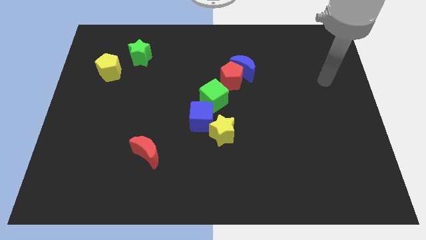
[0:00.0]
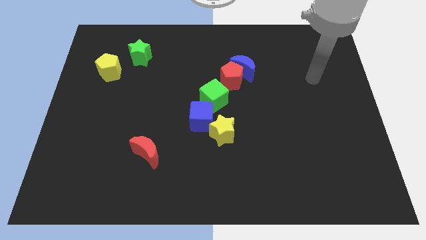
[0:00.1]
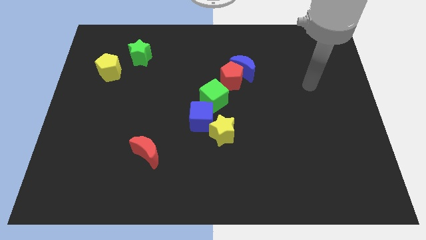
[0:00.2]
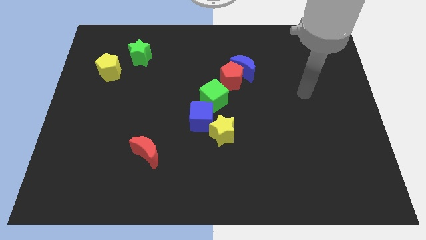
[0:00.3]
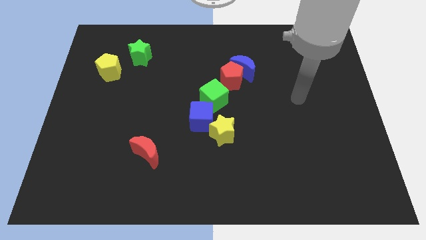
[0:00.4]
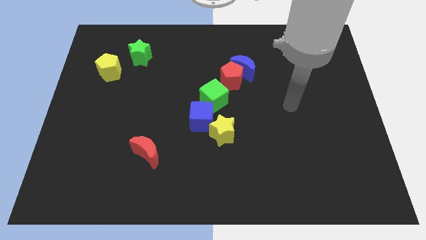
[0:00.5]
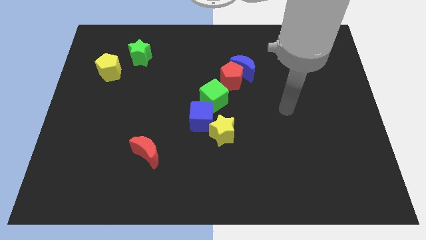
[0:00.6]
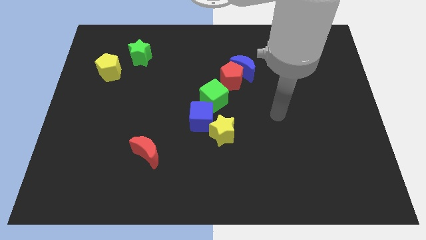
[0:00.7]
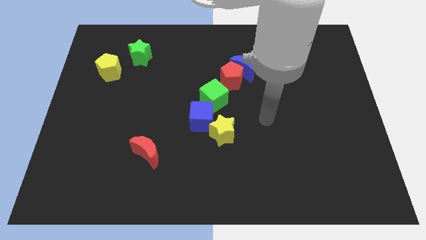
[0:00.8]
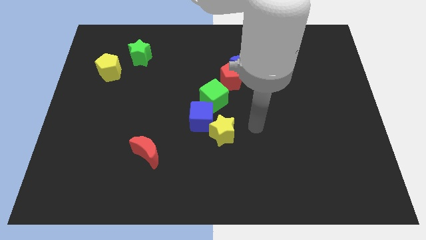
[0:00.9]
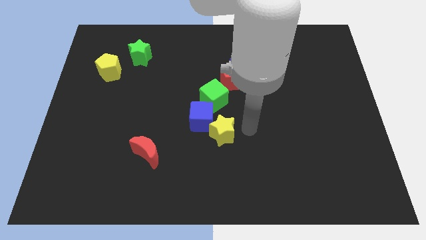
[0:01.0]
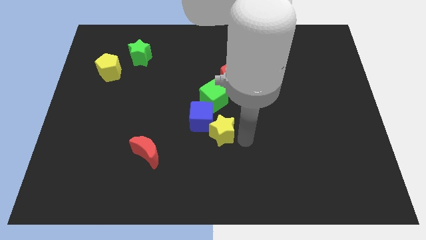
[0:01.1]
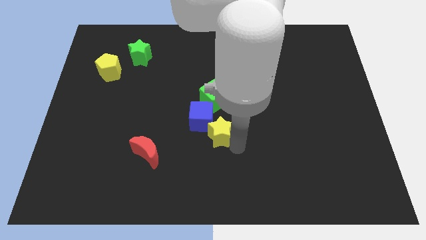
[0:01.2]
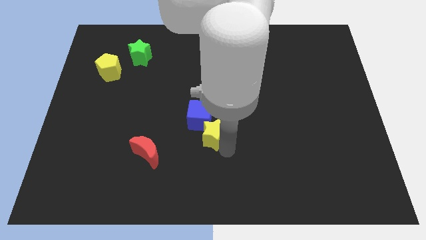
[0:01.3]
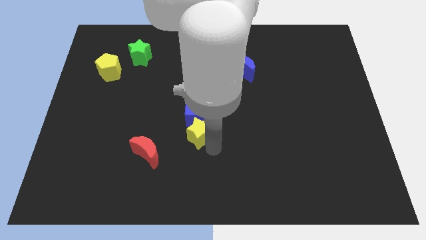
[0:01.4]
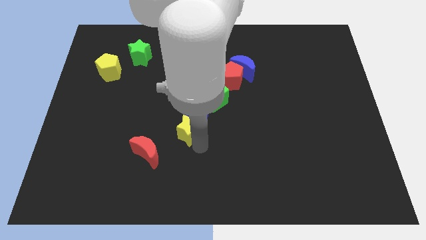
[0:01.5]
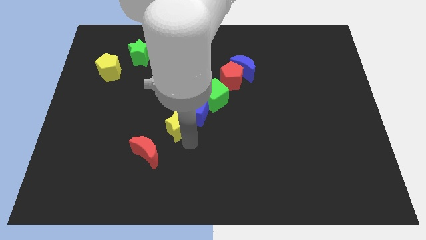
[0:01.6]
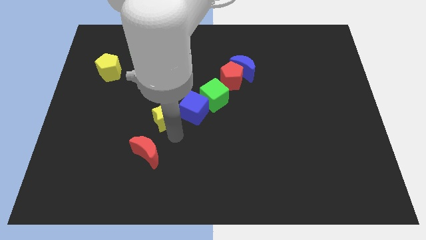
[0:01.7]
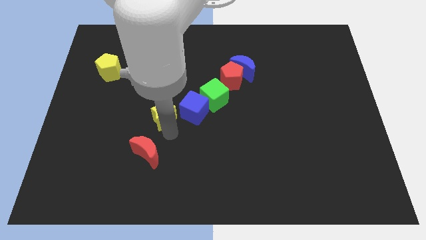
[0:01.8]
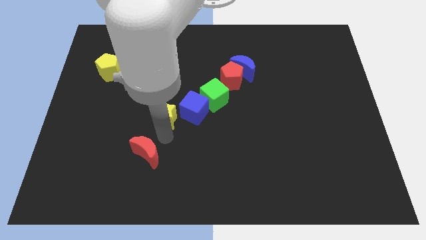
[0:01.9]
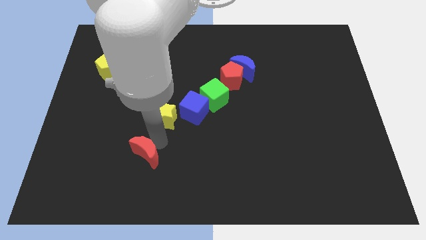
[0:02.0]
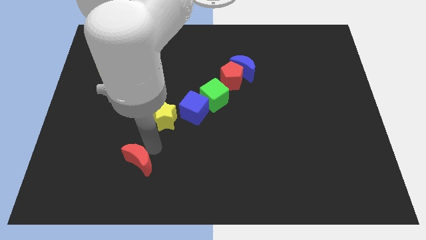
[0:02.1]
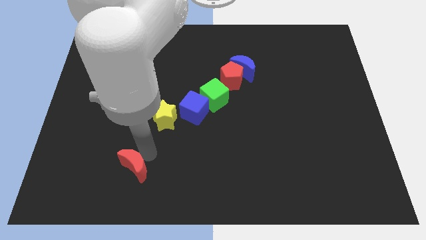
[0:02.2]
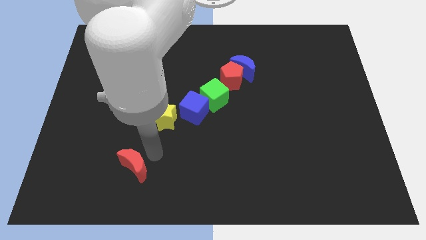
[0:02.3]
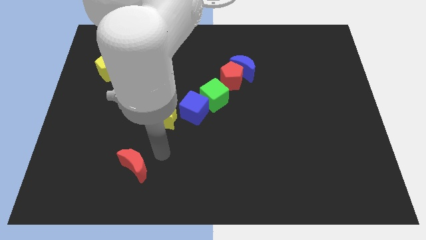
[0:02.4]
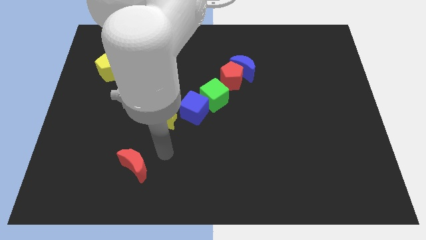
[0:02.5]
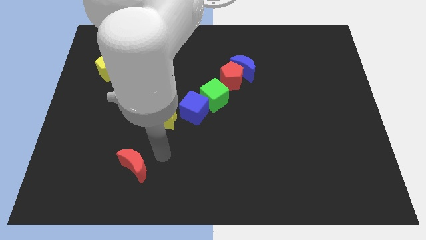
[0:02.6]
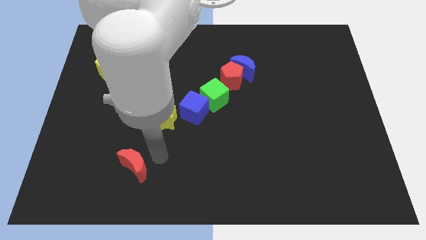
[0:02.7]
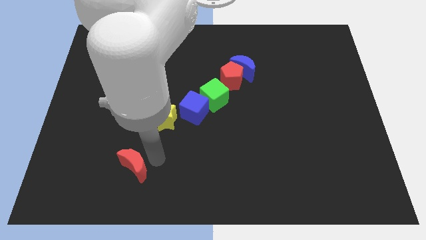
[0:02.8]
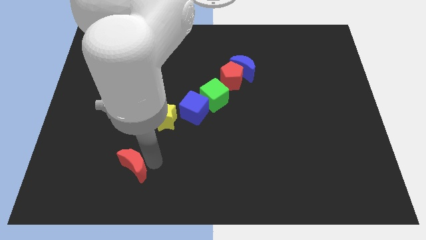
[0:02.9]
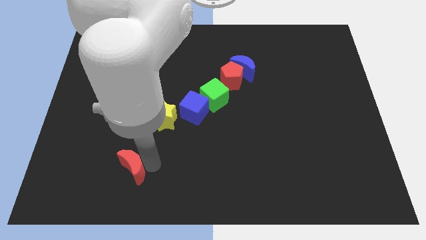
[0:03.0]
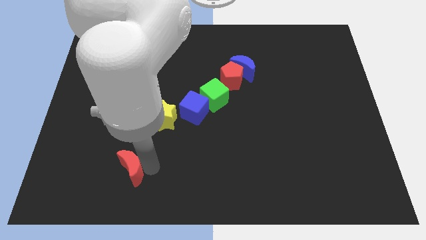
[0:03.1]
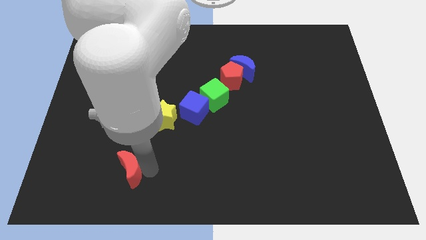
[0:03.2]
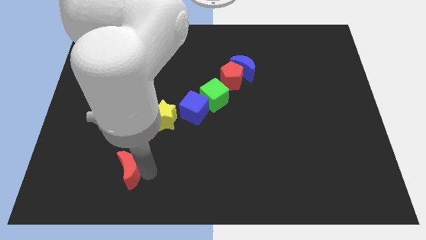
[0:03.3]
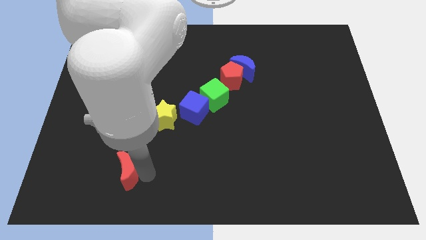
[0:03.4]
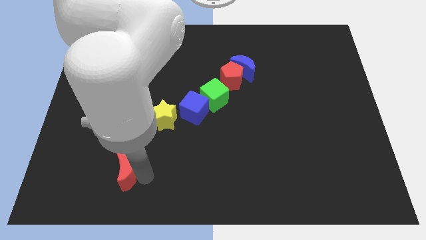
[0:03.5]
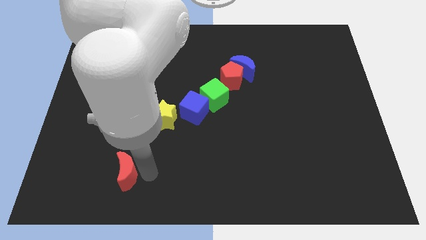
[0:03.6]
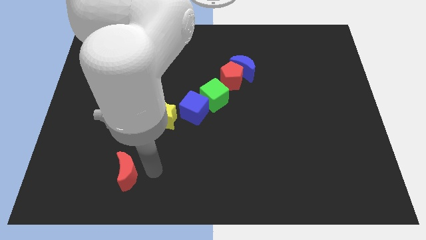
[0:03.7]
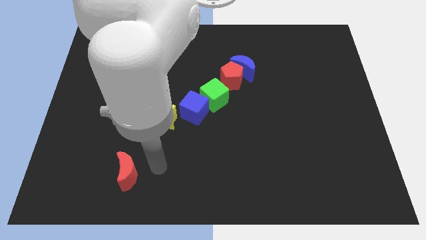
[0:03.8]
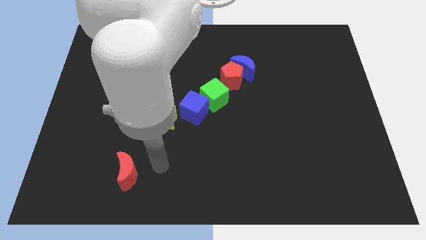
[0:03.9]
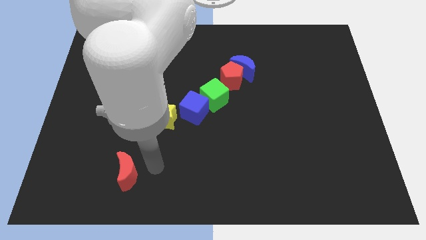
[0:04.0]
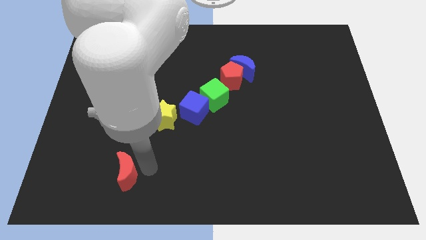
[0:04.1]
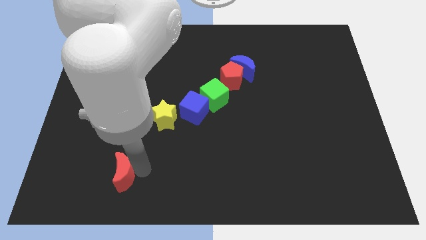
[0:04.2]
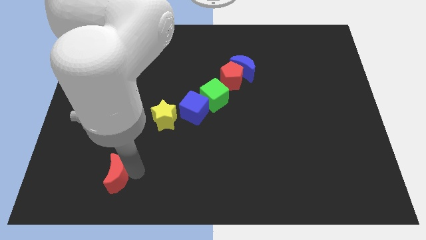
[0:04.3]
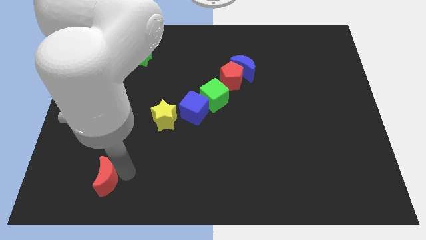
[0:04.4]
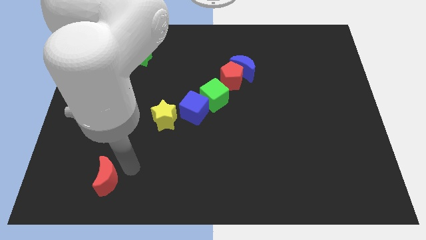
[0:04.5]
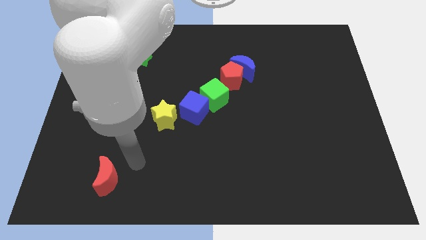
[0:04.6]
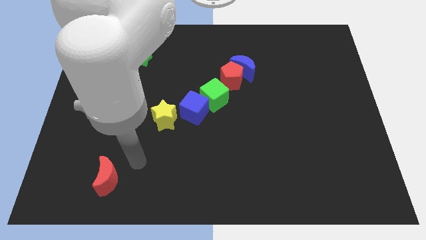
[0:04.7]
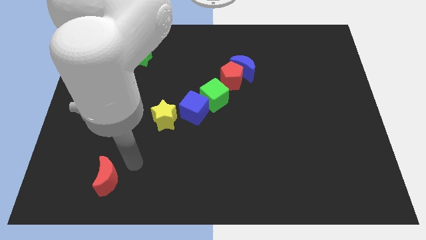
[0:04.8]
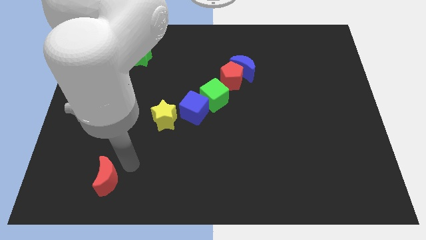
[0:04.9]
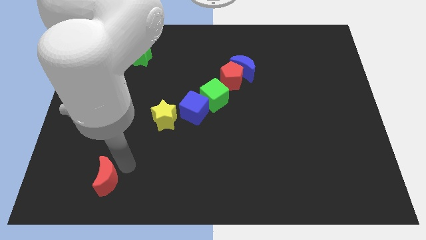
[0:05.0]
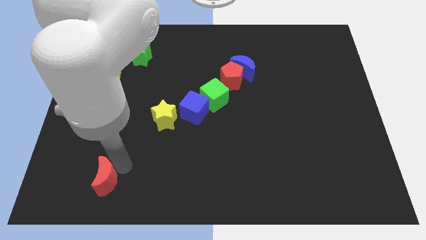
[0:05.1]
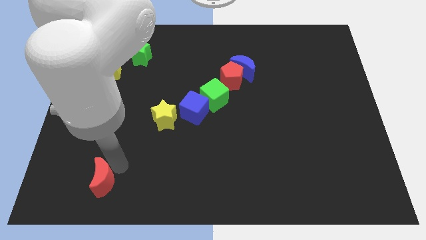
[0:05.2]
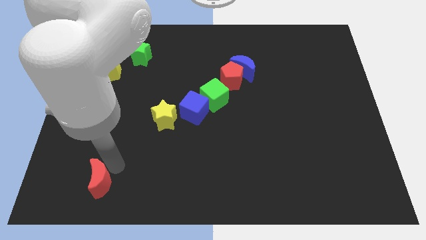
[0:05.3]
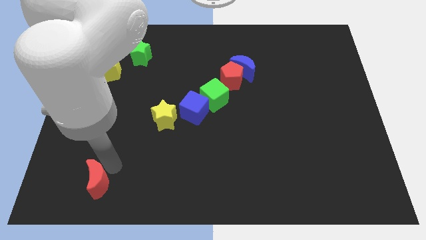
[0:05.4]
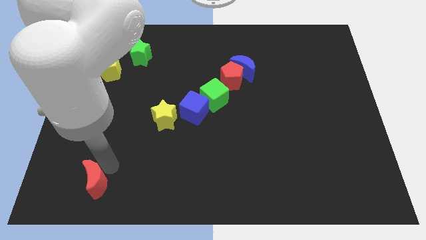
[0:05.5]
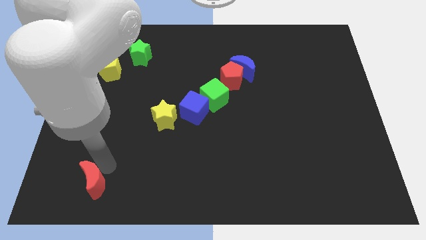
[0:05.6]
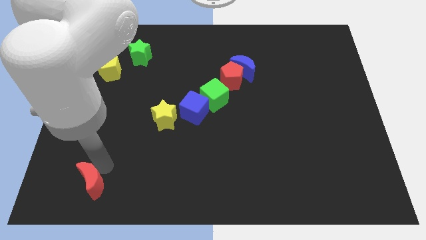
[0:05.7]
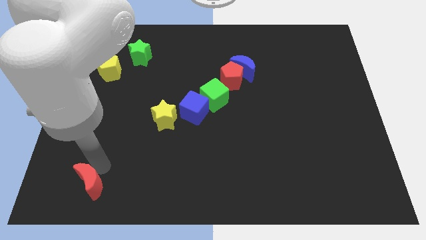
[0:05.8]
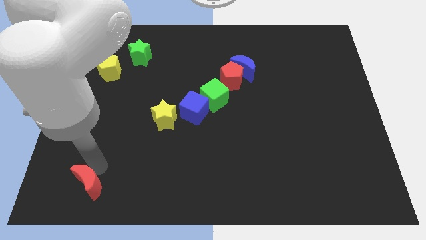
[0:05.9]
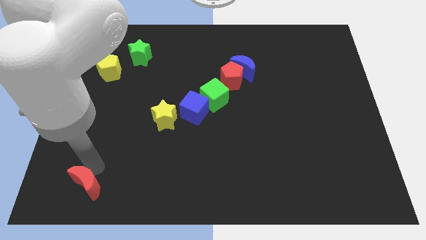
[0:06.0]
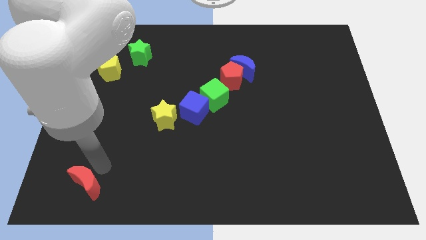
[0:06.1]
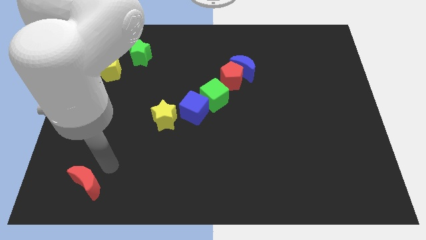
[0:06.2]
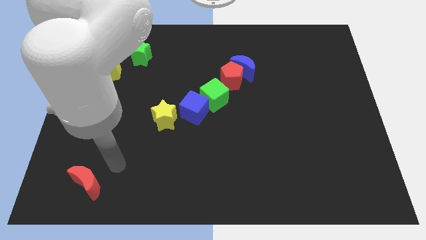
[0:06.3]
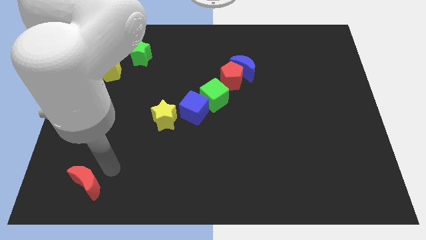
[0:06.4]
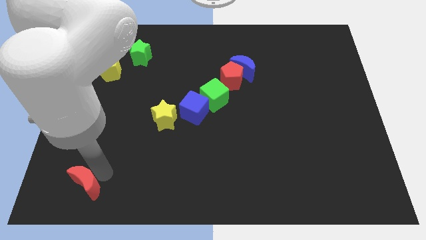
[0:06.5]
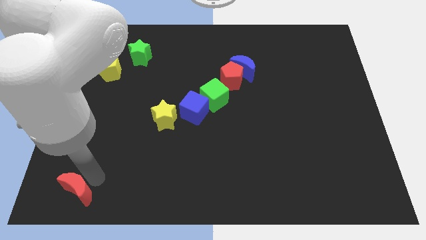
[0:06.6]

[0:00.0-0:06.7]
put the red moon to the bottom left of the board

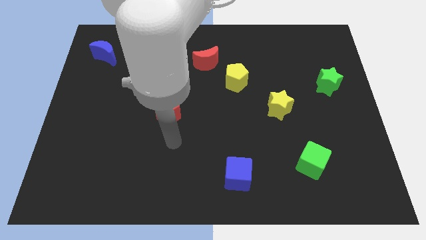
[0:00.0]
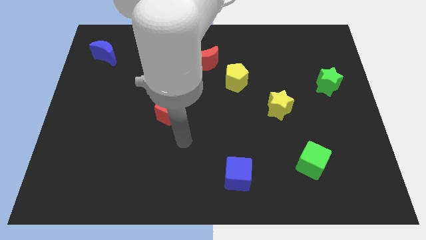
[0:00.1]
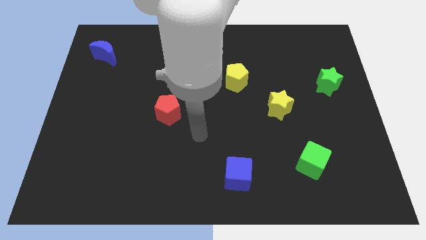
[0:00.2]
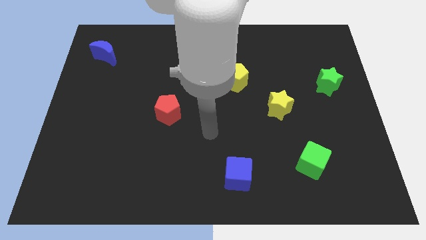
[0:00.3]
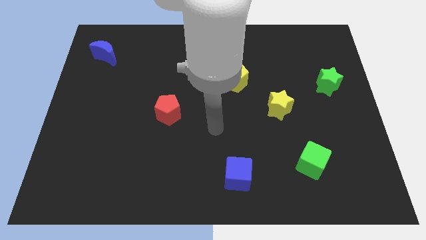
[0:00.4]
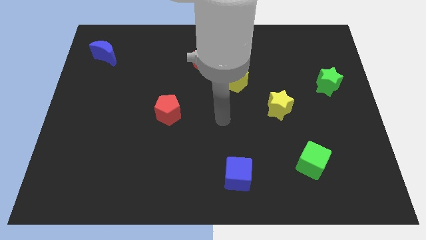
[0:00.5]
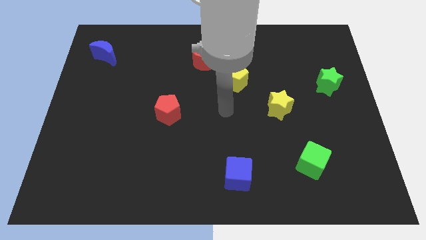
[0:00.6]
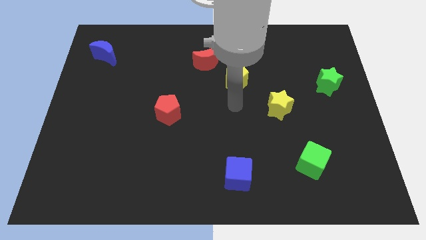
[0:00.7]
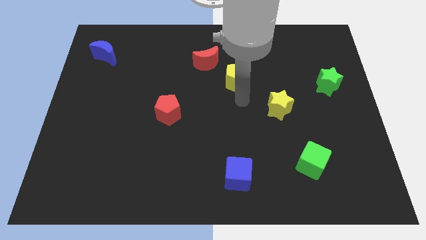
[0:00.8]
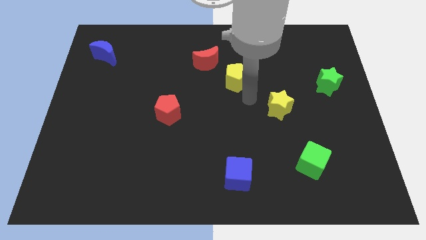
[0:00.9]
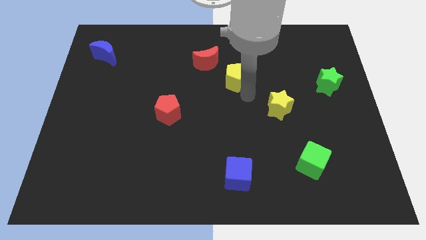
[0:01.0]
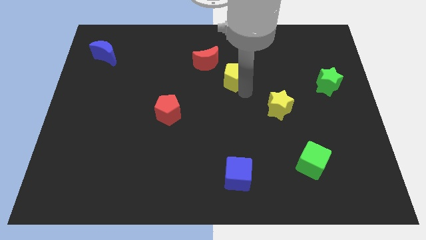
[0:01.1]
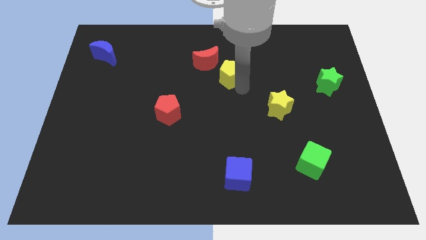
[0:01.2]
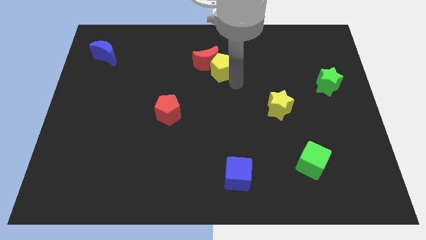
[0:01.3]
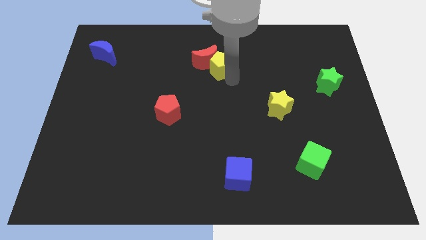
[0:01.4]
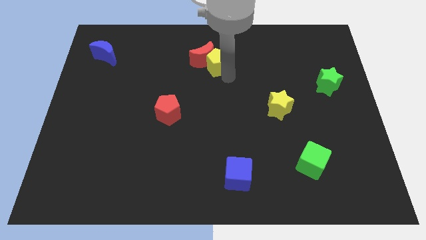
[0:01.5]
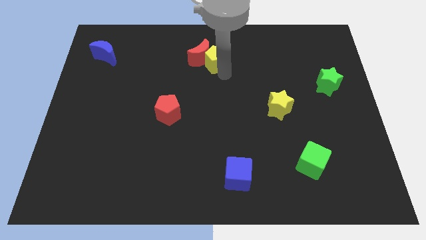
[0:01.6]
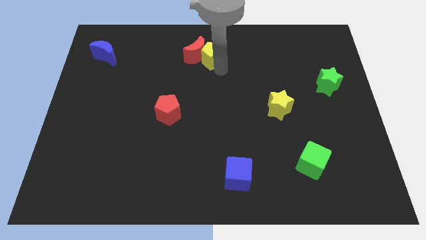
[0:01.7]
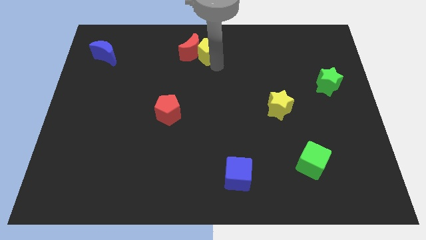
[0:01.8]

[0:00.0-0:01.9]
put the yellow pentagon to the top
